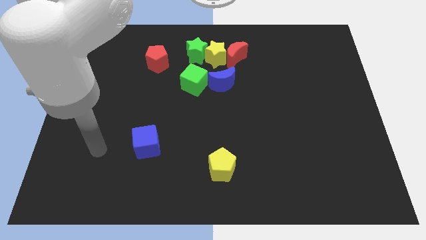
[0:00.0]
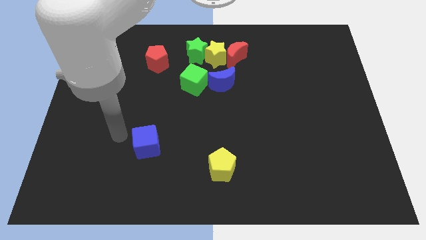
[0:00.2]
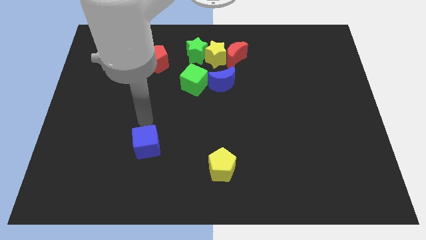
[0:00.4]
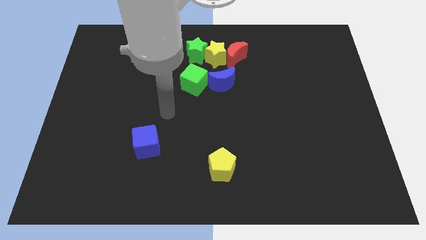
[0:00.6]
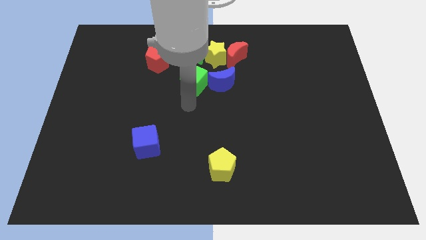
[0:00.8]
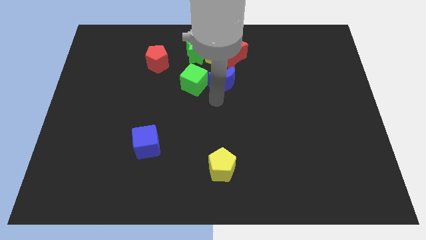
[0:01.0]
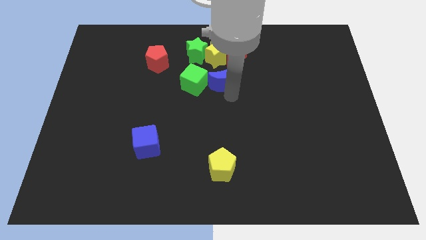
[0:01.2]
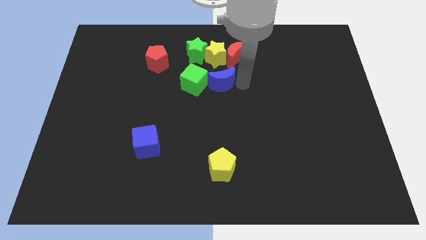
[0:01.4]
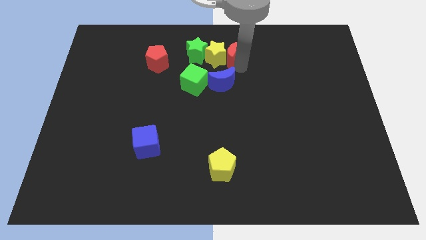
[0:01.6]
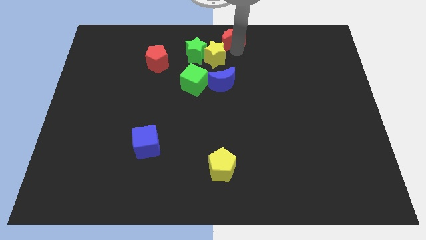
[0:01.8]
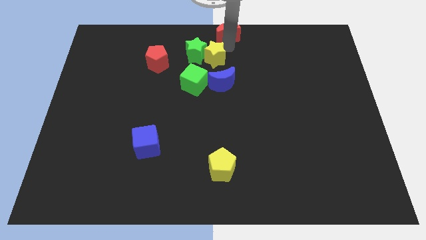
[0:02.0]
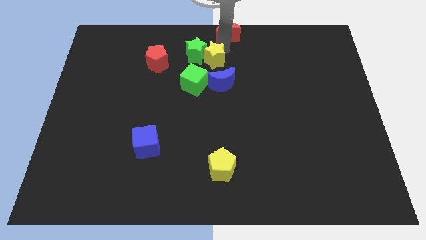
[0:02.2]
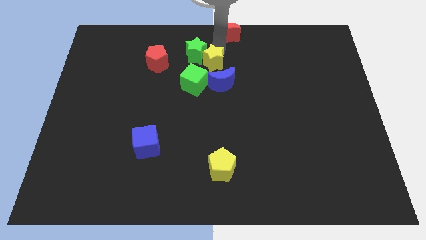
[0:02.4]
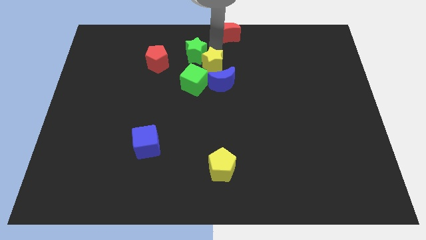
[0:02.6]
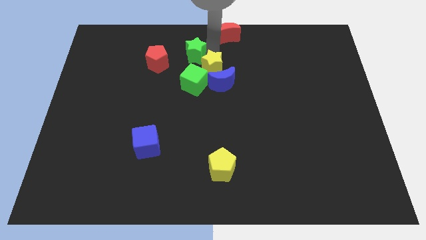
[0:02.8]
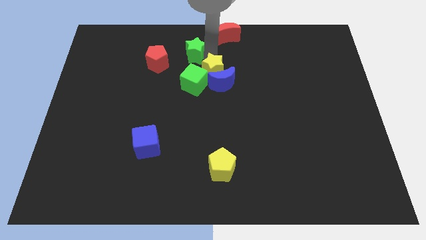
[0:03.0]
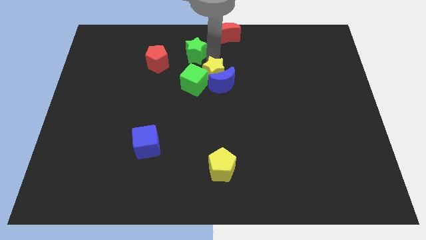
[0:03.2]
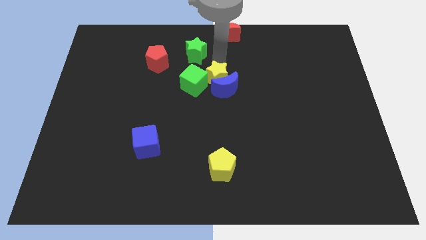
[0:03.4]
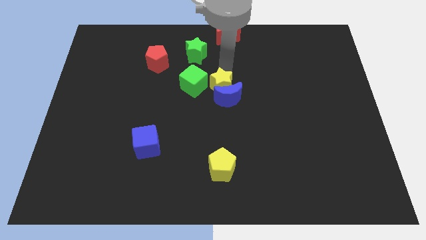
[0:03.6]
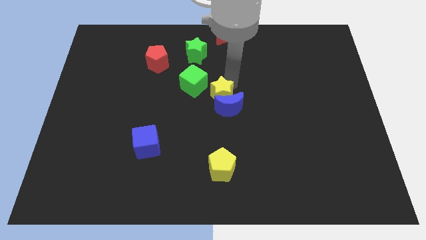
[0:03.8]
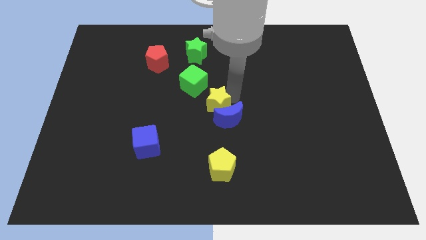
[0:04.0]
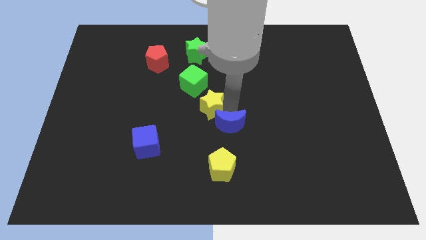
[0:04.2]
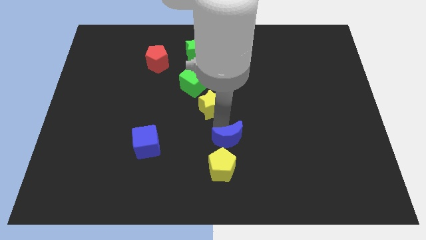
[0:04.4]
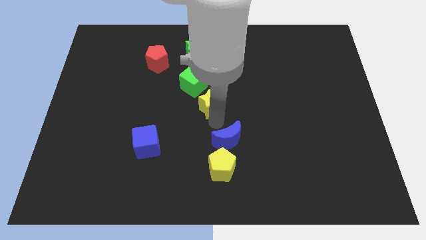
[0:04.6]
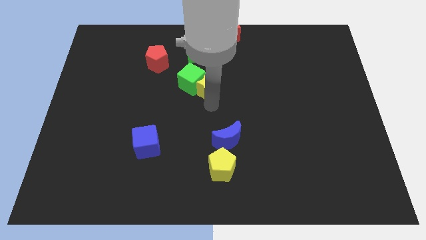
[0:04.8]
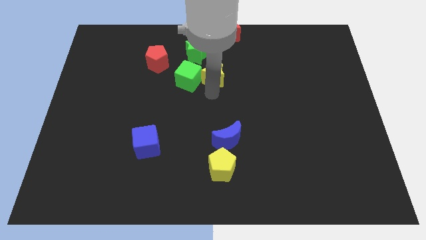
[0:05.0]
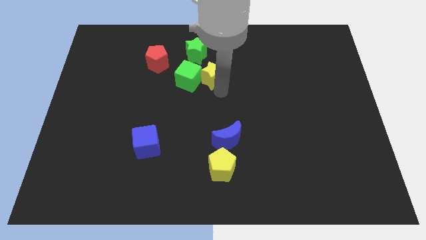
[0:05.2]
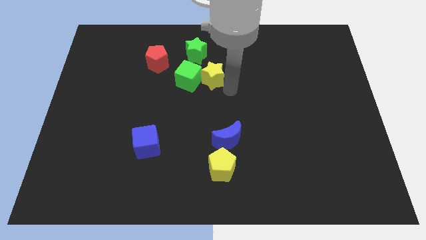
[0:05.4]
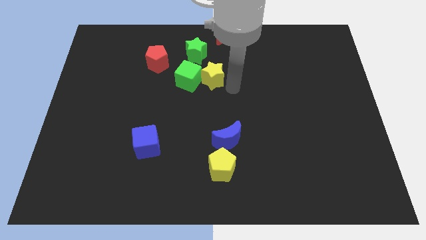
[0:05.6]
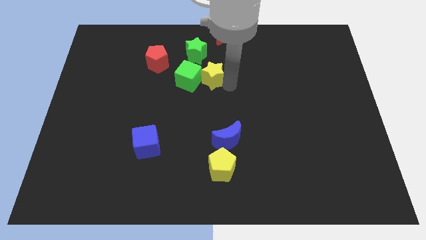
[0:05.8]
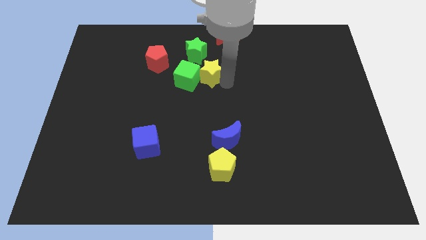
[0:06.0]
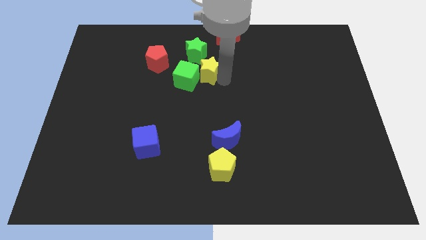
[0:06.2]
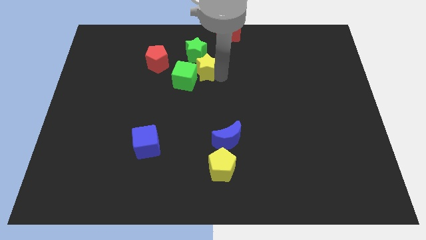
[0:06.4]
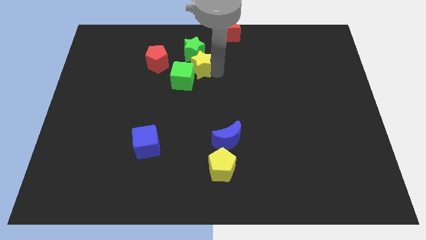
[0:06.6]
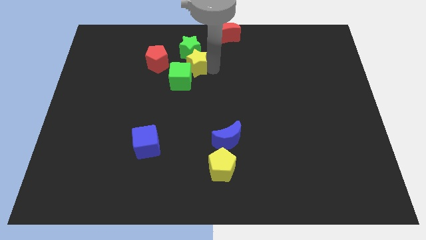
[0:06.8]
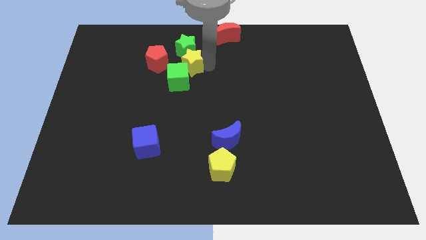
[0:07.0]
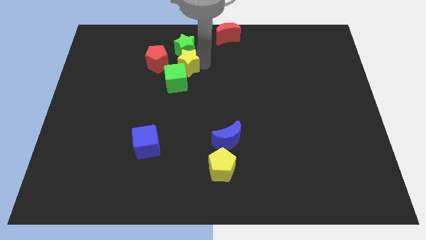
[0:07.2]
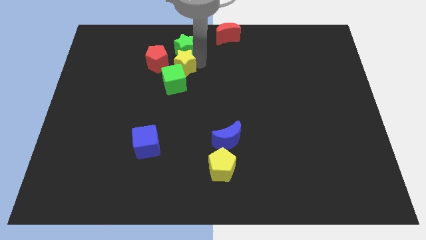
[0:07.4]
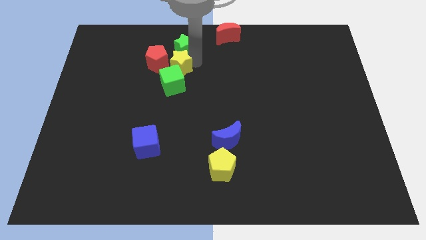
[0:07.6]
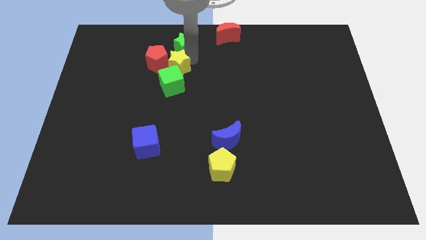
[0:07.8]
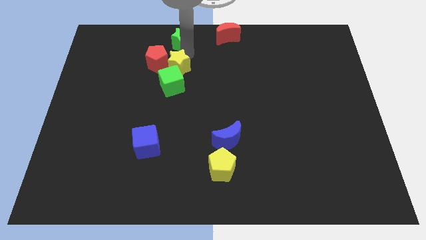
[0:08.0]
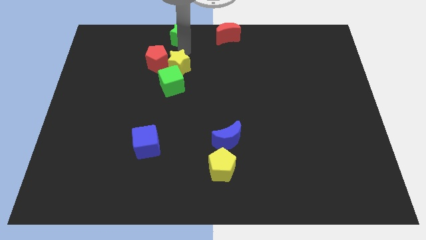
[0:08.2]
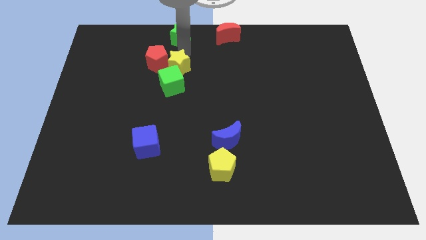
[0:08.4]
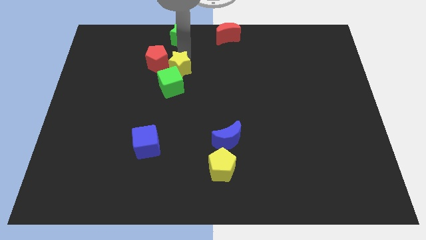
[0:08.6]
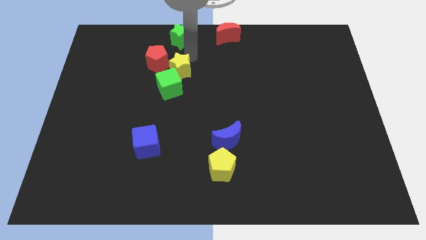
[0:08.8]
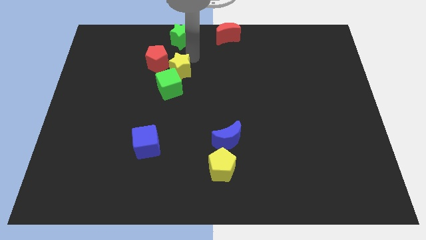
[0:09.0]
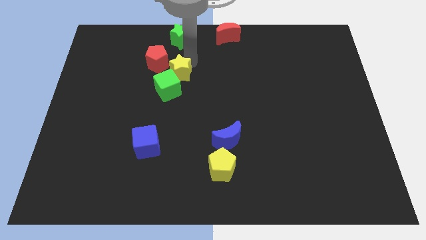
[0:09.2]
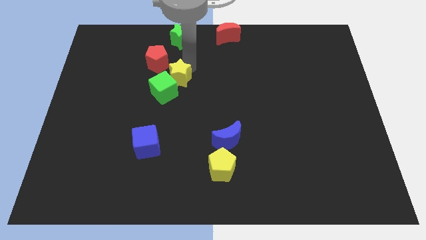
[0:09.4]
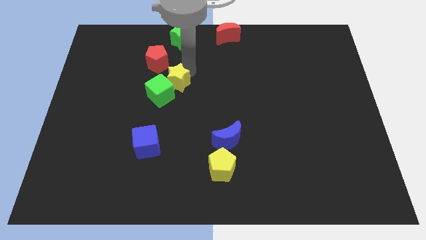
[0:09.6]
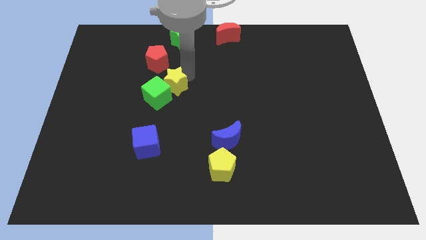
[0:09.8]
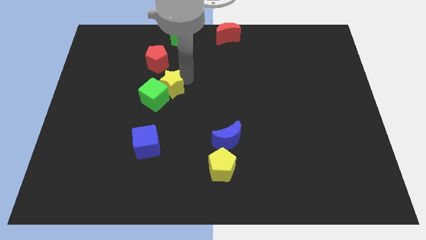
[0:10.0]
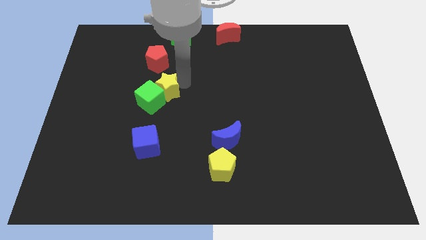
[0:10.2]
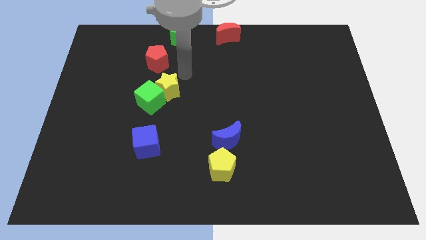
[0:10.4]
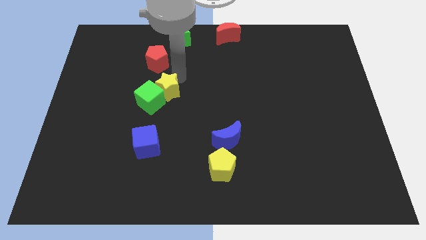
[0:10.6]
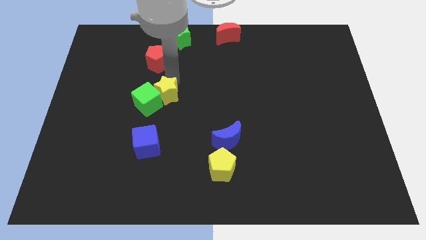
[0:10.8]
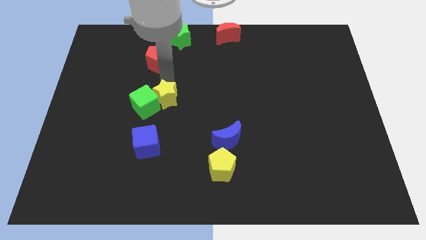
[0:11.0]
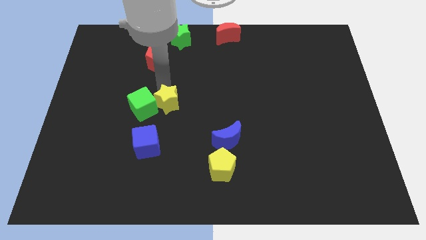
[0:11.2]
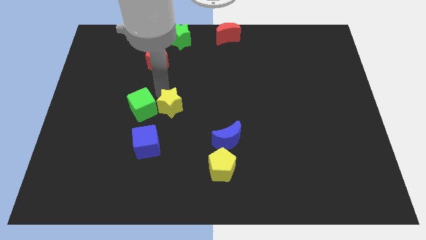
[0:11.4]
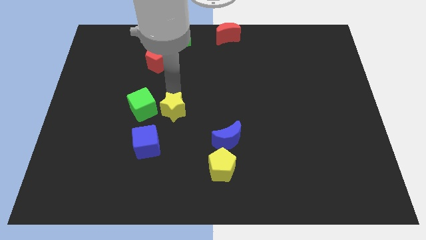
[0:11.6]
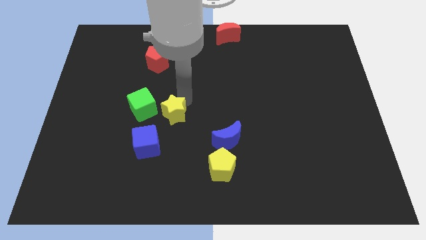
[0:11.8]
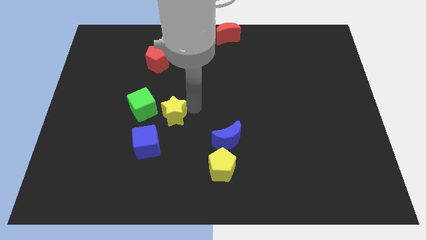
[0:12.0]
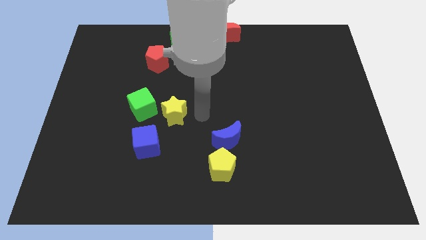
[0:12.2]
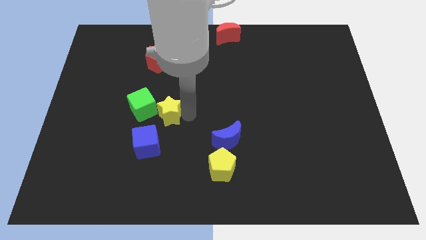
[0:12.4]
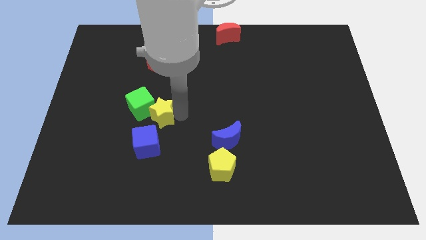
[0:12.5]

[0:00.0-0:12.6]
push the yellow star downwards and to the left

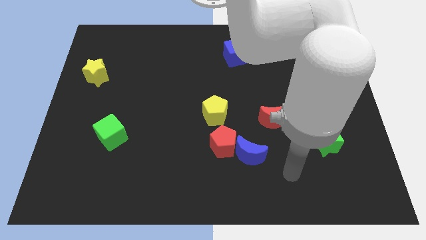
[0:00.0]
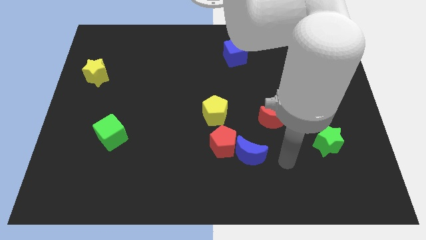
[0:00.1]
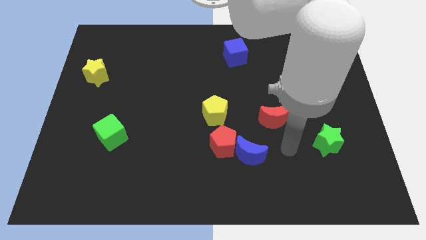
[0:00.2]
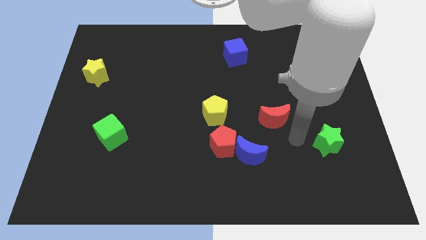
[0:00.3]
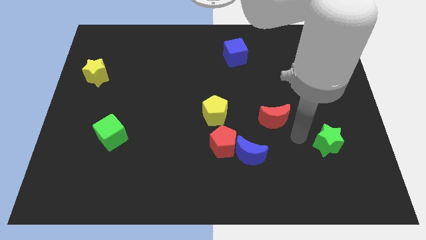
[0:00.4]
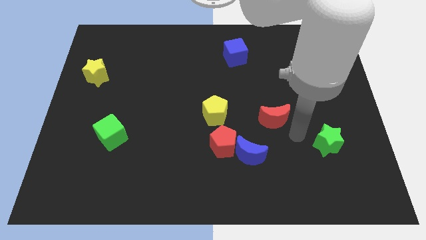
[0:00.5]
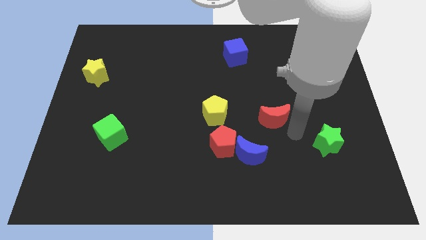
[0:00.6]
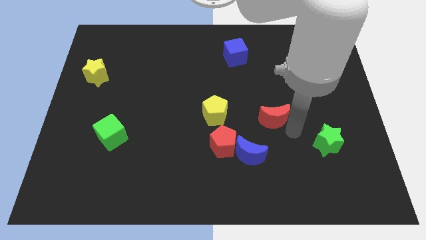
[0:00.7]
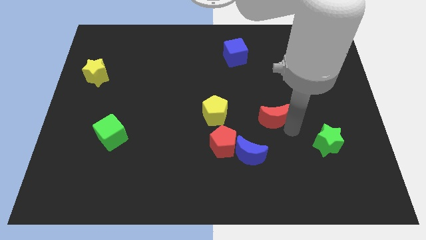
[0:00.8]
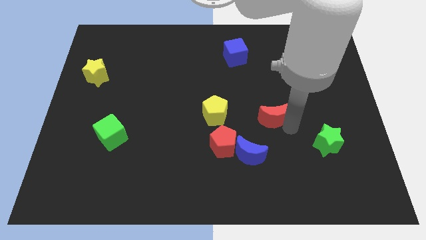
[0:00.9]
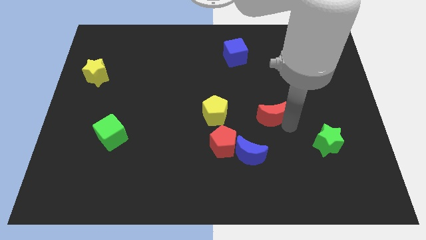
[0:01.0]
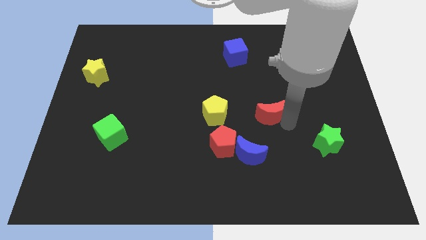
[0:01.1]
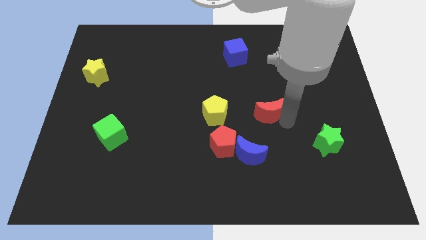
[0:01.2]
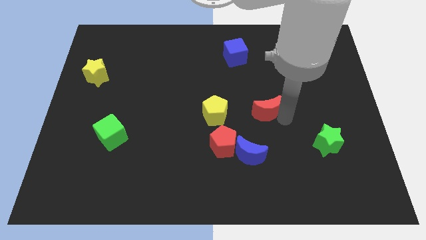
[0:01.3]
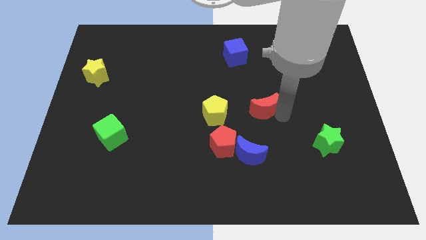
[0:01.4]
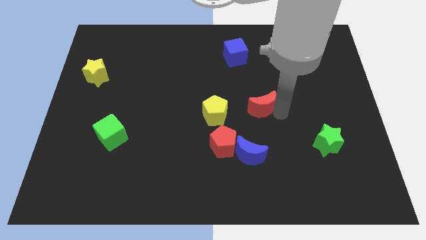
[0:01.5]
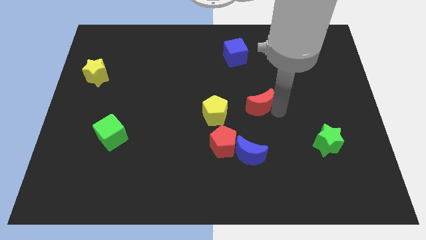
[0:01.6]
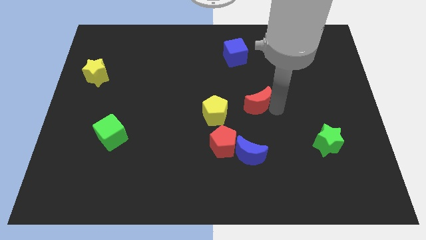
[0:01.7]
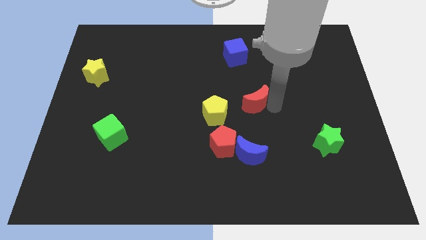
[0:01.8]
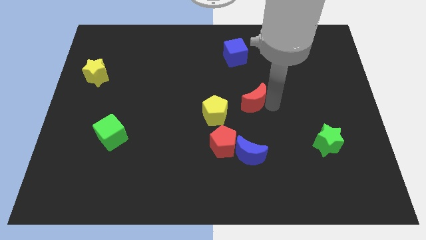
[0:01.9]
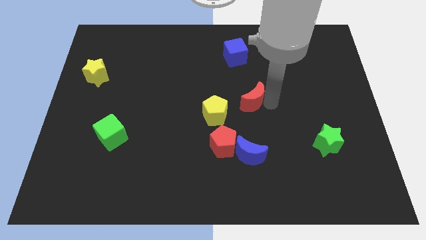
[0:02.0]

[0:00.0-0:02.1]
push the red moon slightly up and then to the left
